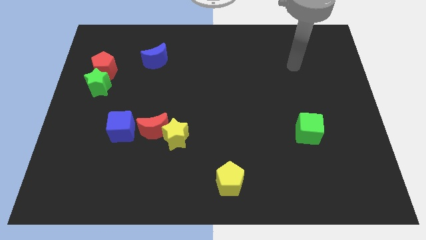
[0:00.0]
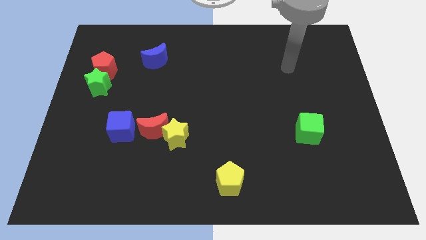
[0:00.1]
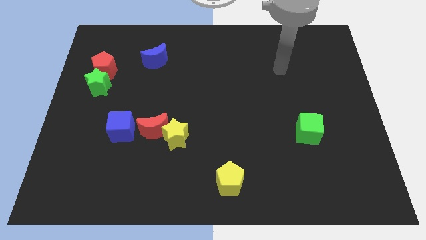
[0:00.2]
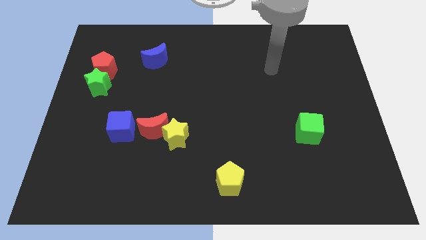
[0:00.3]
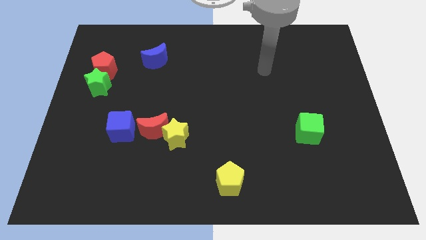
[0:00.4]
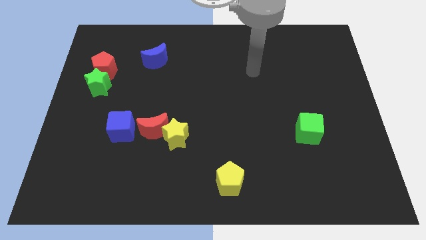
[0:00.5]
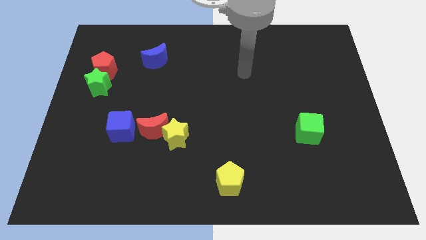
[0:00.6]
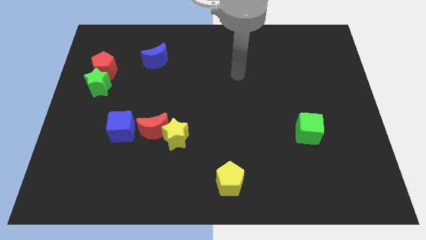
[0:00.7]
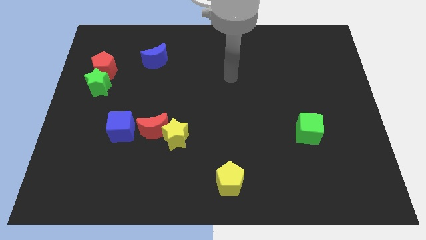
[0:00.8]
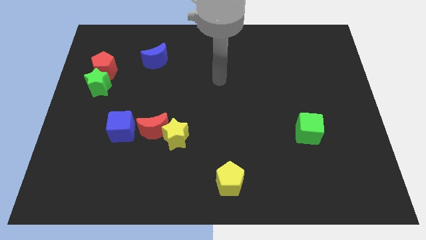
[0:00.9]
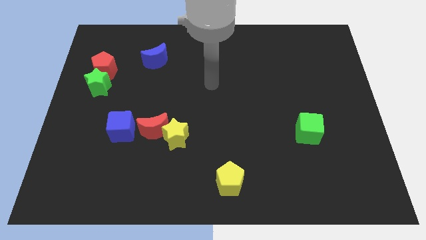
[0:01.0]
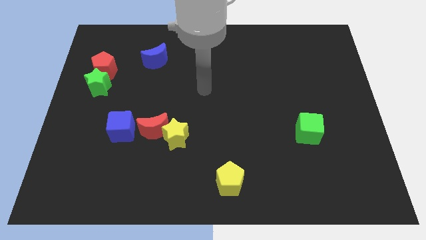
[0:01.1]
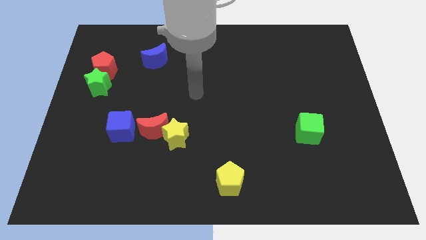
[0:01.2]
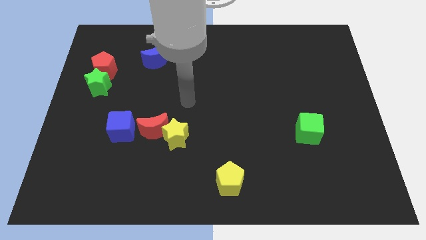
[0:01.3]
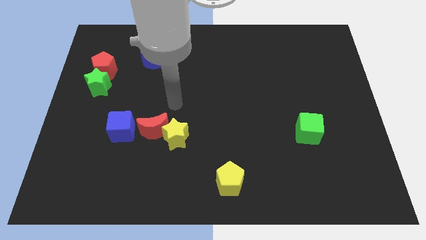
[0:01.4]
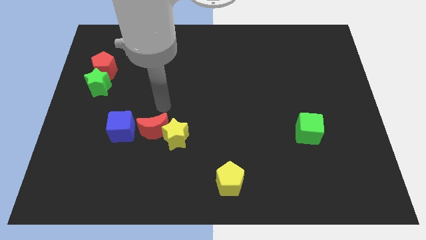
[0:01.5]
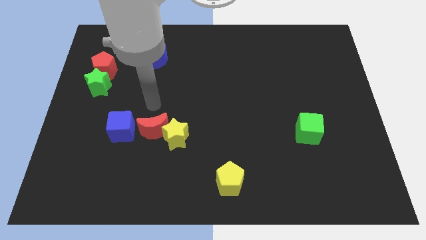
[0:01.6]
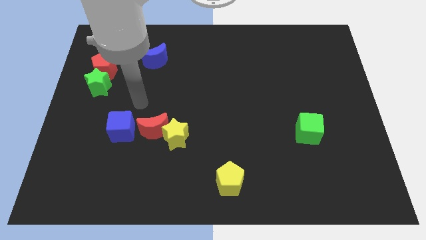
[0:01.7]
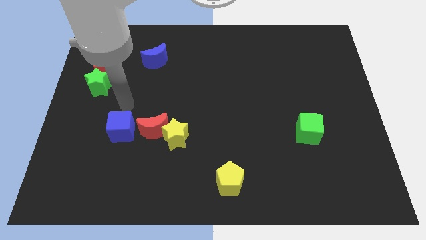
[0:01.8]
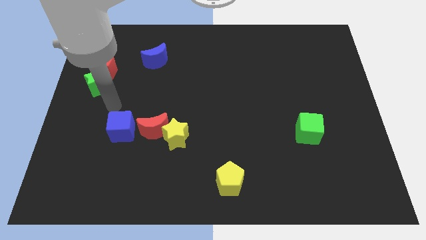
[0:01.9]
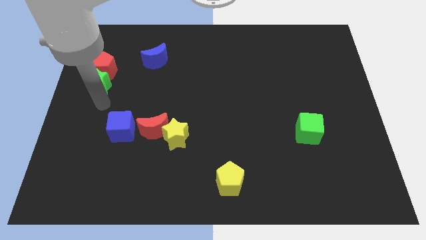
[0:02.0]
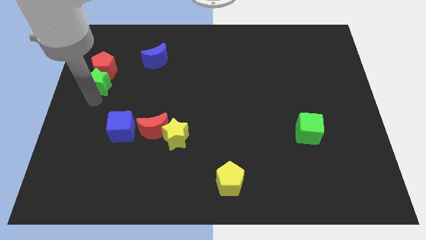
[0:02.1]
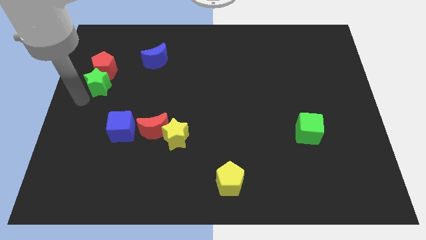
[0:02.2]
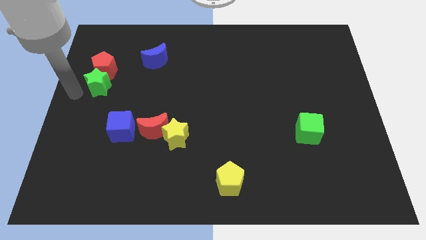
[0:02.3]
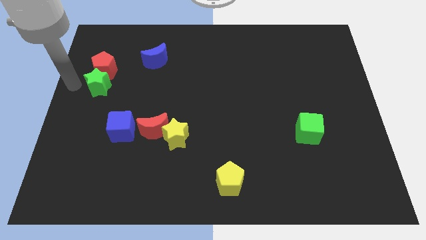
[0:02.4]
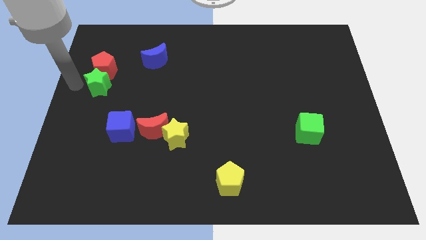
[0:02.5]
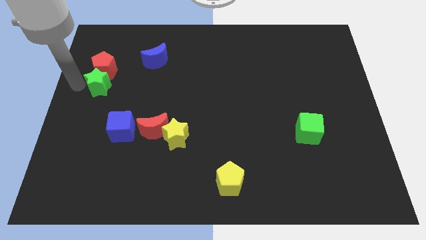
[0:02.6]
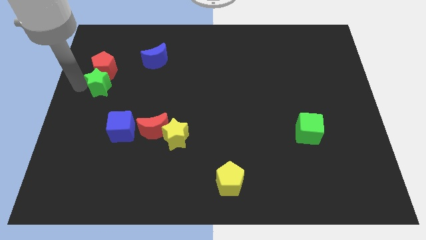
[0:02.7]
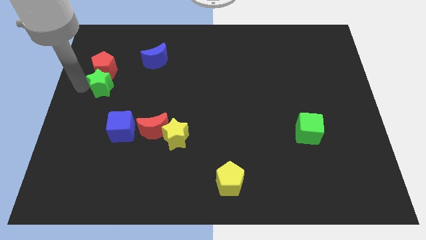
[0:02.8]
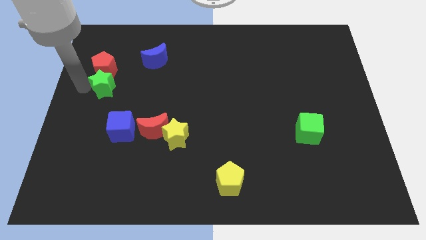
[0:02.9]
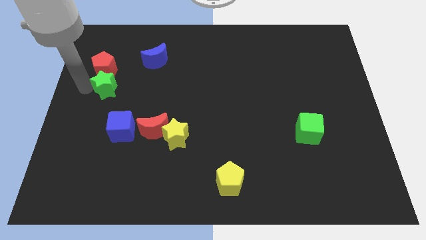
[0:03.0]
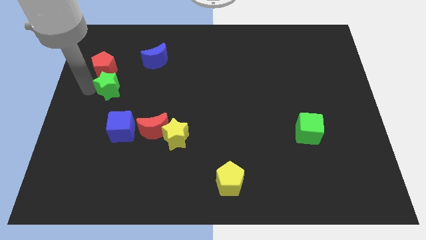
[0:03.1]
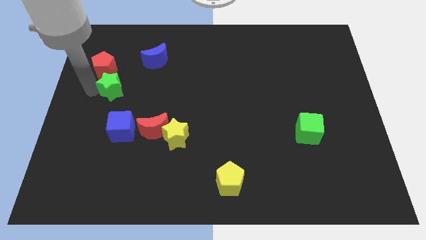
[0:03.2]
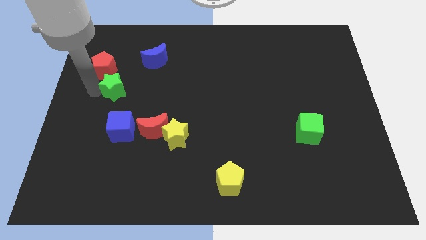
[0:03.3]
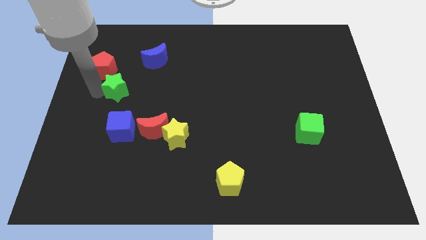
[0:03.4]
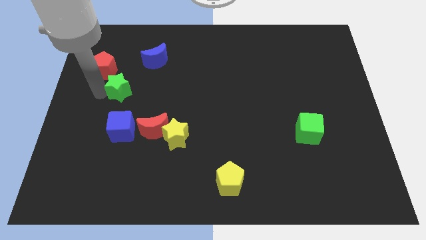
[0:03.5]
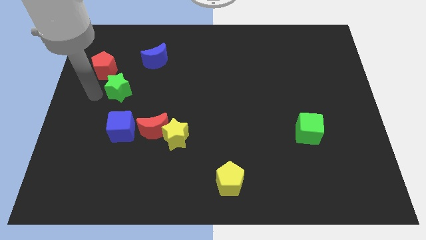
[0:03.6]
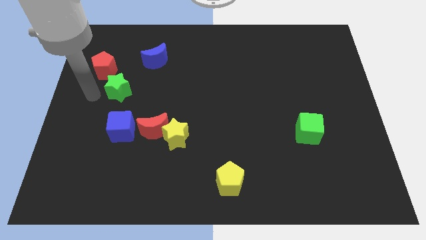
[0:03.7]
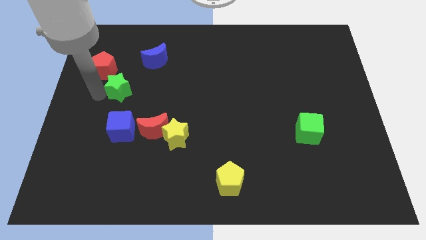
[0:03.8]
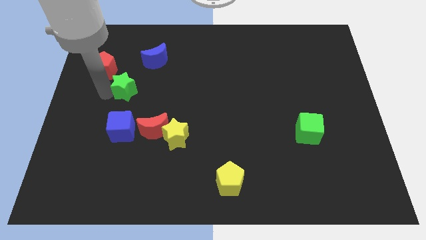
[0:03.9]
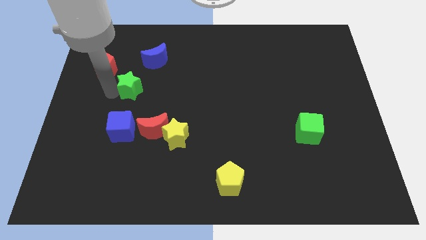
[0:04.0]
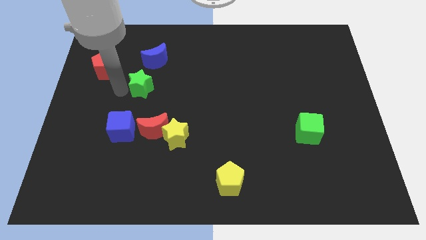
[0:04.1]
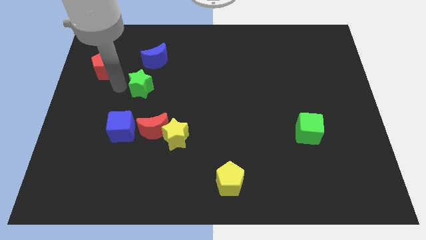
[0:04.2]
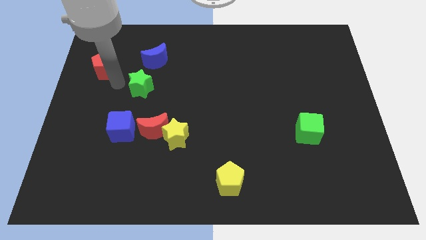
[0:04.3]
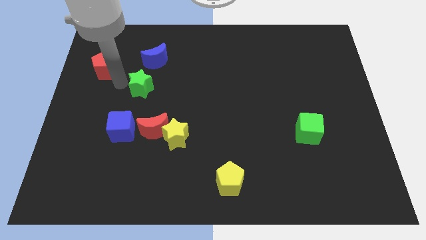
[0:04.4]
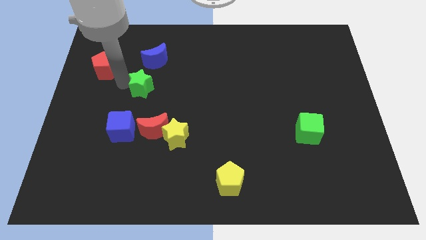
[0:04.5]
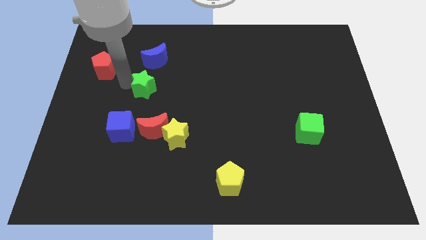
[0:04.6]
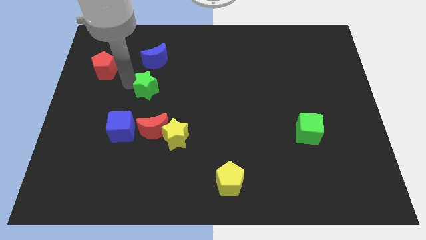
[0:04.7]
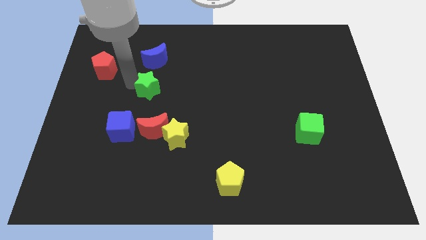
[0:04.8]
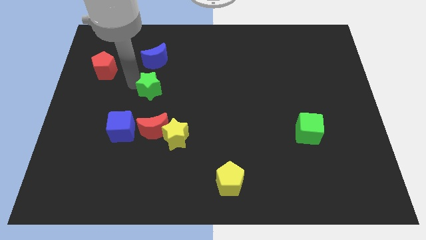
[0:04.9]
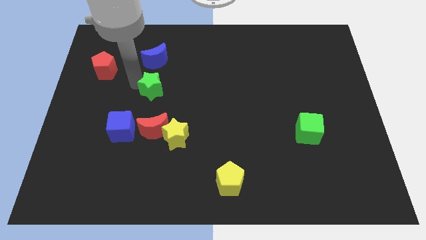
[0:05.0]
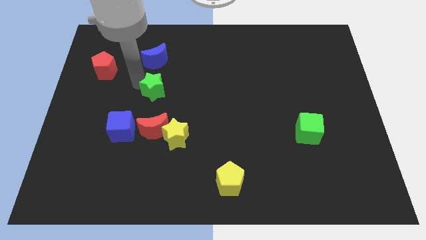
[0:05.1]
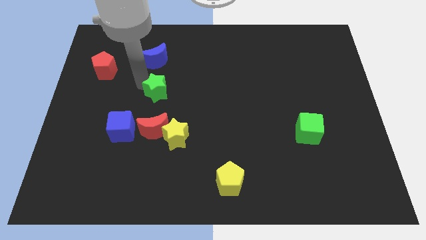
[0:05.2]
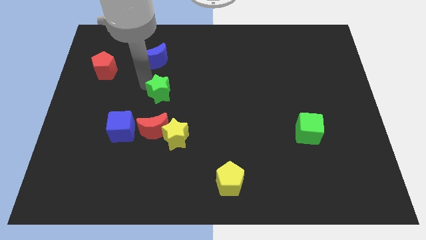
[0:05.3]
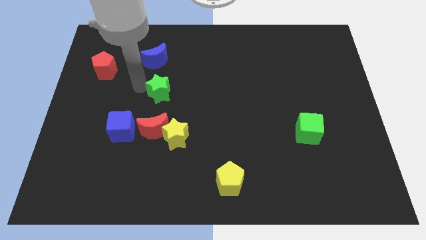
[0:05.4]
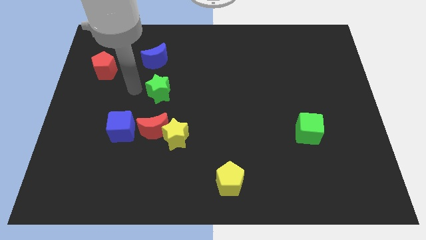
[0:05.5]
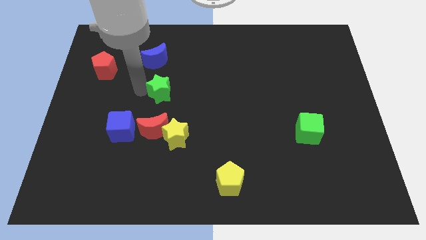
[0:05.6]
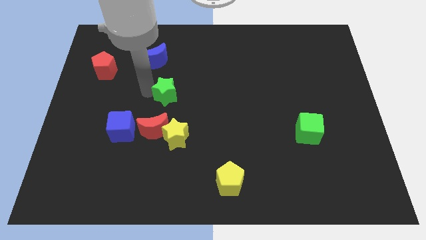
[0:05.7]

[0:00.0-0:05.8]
move the green star to the center of the board

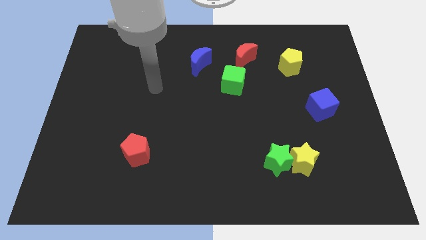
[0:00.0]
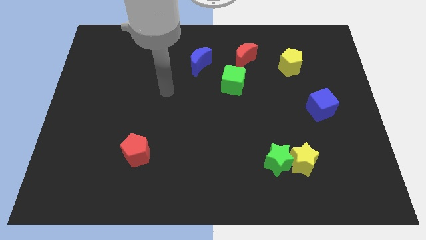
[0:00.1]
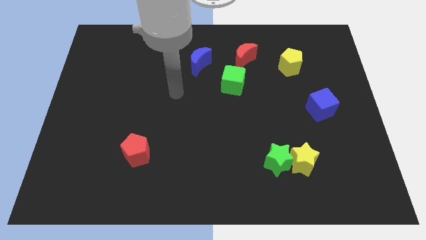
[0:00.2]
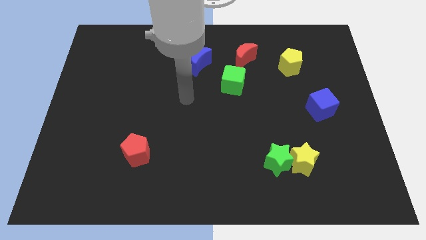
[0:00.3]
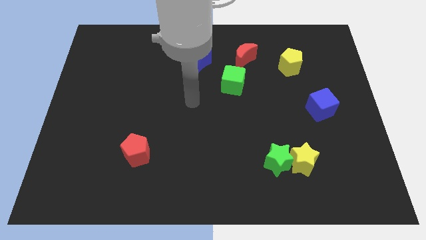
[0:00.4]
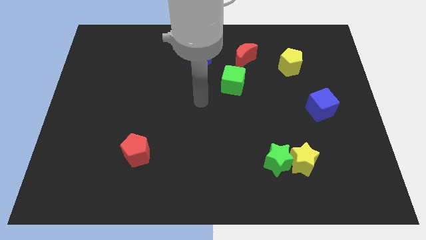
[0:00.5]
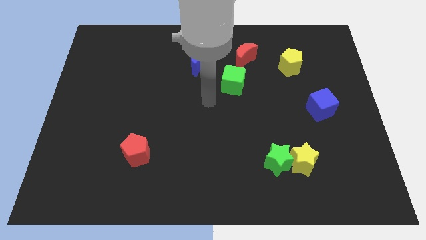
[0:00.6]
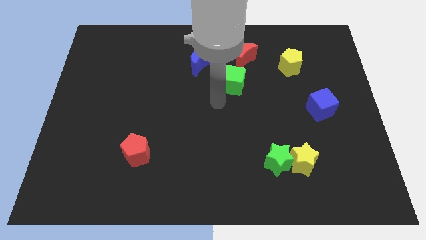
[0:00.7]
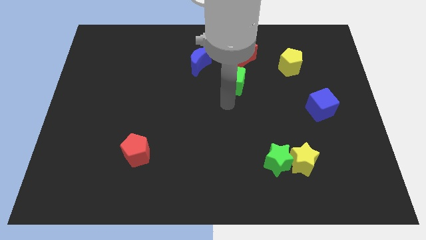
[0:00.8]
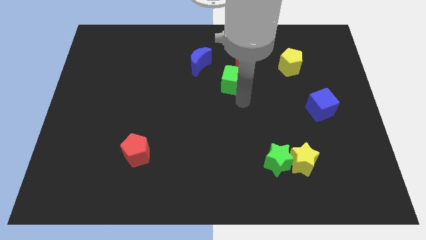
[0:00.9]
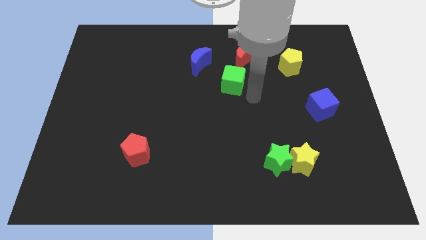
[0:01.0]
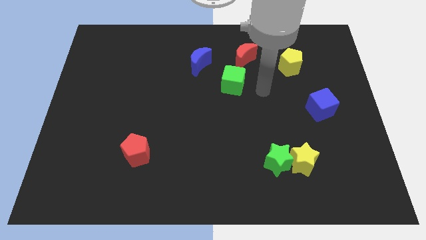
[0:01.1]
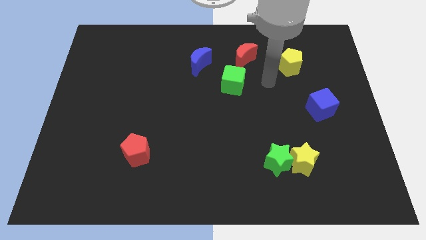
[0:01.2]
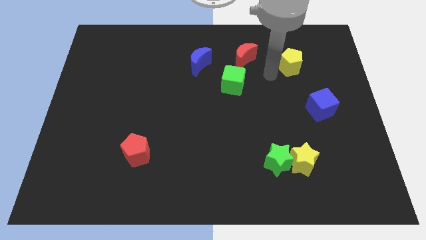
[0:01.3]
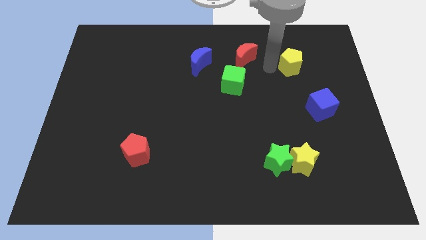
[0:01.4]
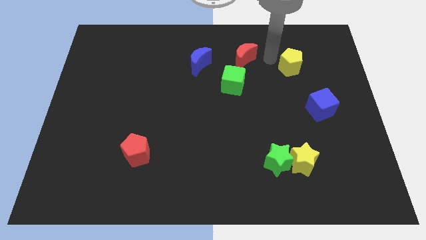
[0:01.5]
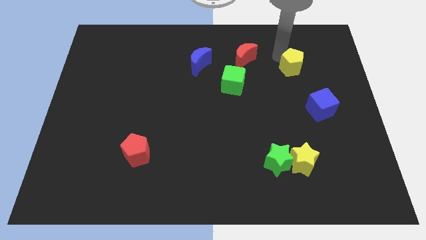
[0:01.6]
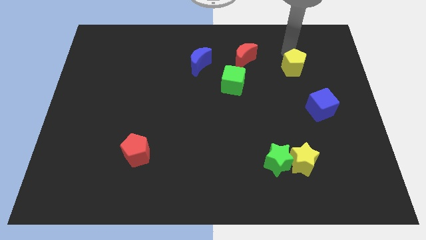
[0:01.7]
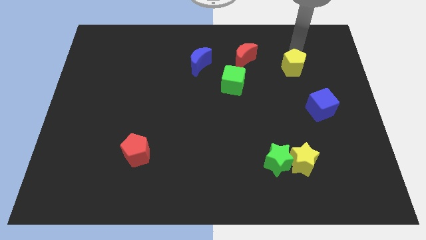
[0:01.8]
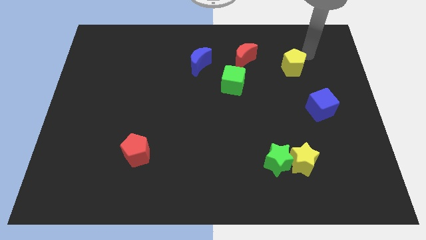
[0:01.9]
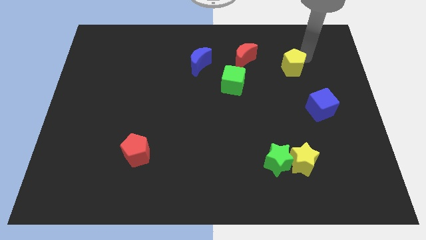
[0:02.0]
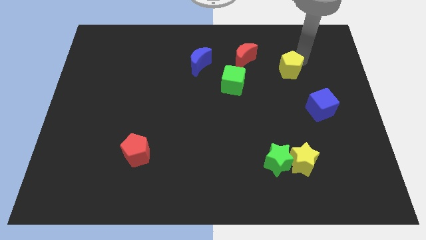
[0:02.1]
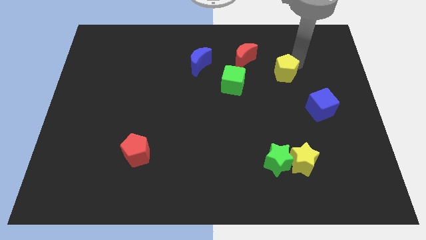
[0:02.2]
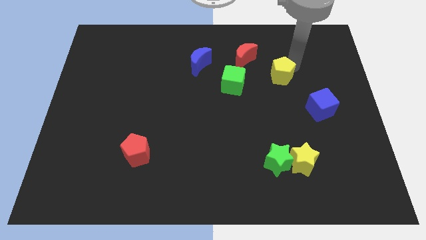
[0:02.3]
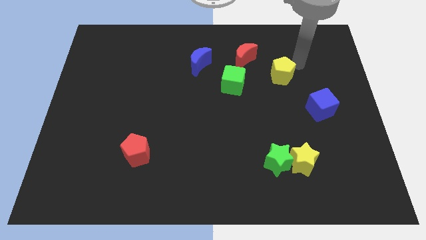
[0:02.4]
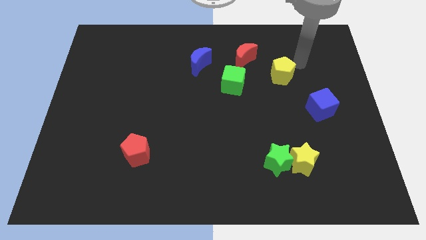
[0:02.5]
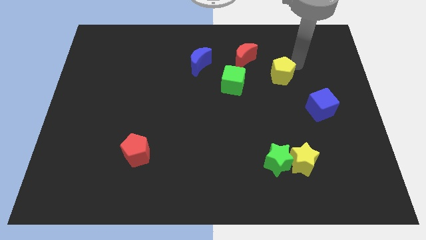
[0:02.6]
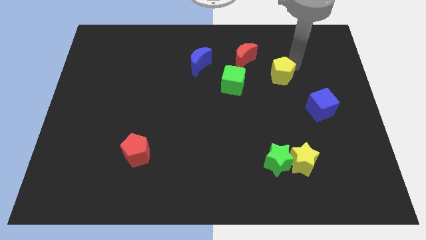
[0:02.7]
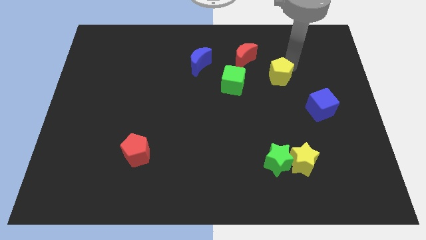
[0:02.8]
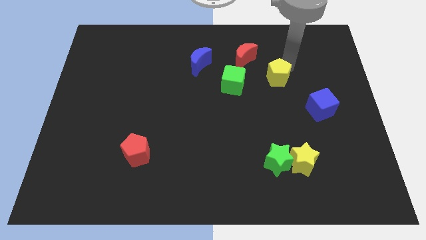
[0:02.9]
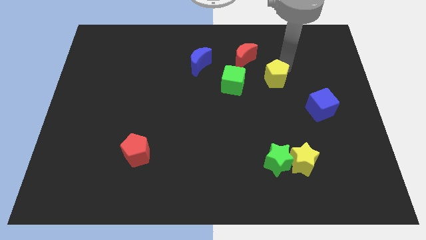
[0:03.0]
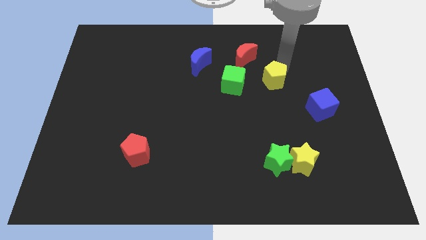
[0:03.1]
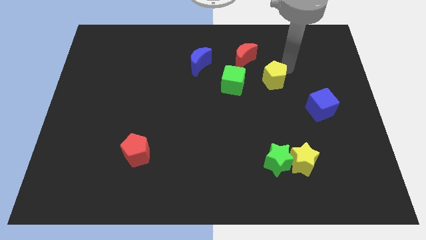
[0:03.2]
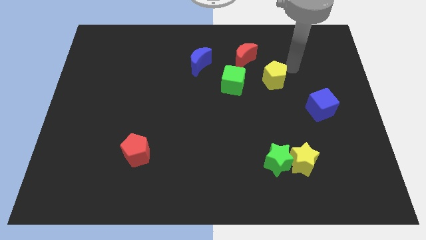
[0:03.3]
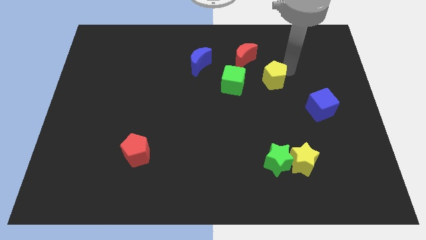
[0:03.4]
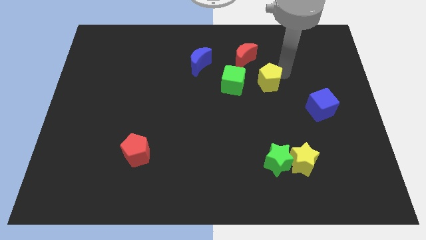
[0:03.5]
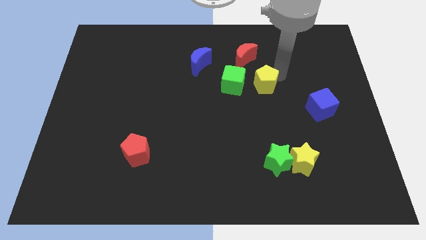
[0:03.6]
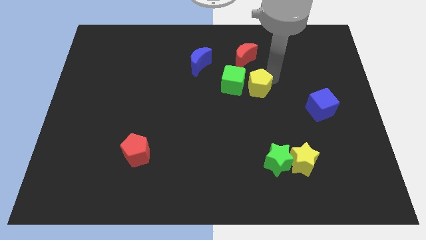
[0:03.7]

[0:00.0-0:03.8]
slide the yellow pentagon to the center
